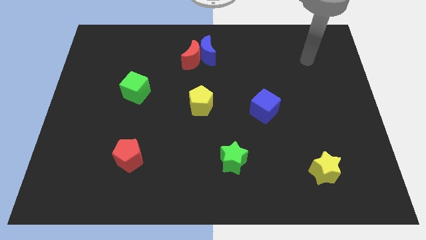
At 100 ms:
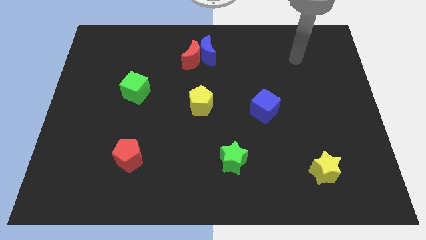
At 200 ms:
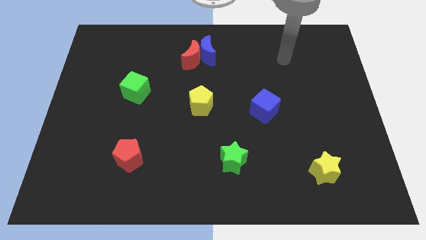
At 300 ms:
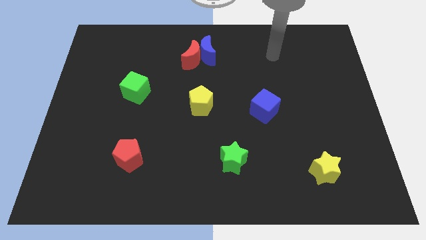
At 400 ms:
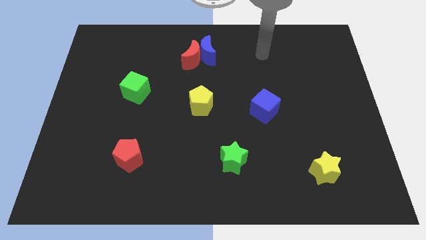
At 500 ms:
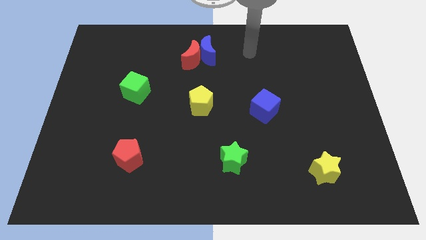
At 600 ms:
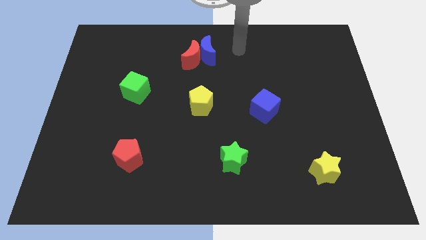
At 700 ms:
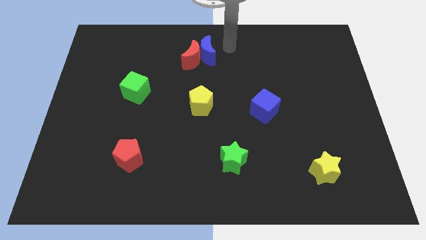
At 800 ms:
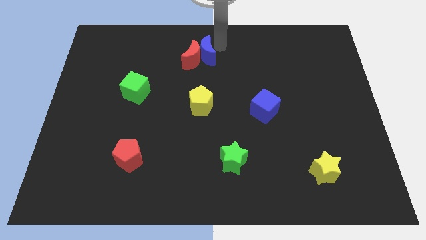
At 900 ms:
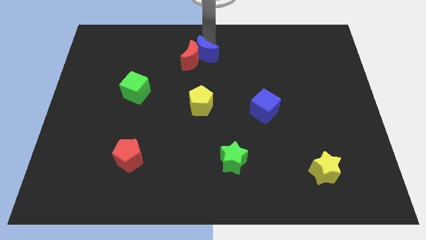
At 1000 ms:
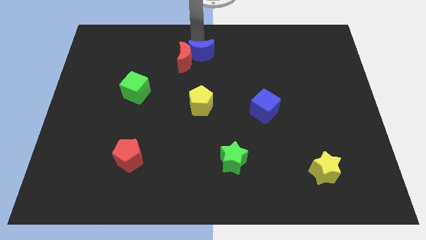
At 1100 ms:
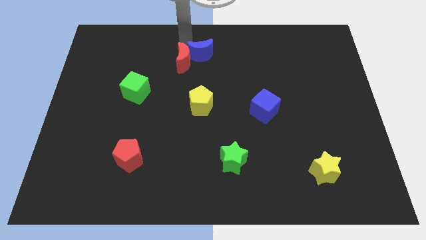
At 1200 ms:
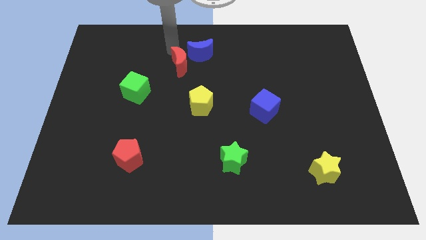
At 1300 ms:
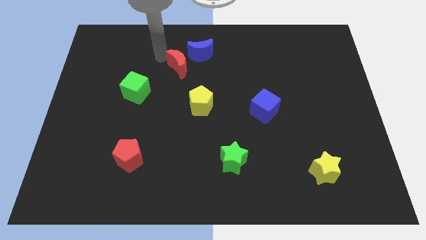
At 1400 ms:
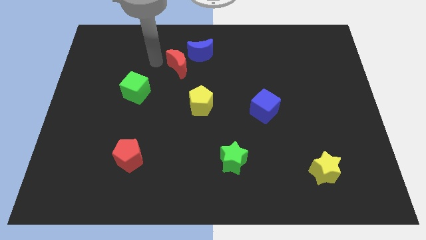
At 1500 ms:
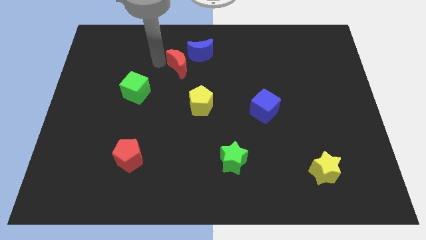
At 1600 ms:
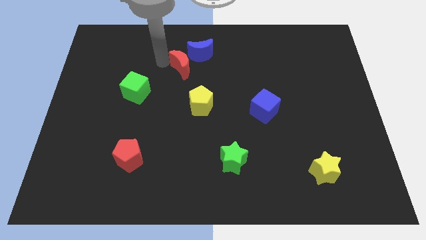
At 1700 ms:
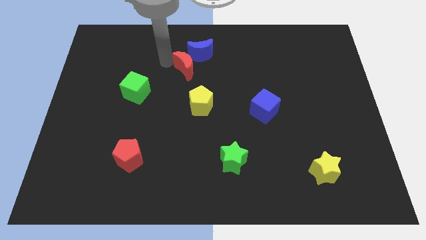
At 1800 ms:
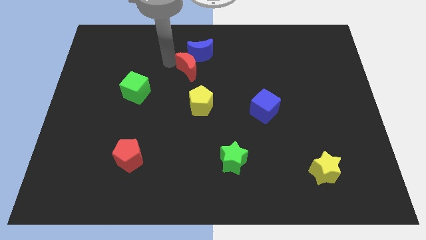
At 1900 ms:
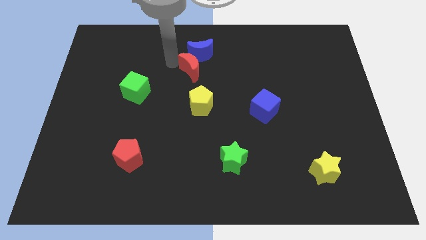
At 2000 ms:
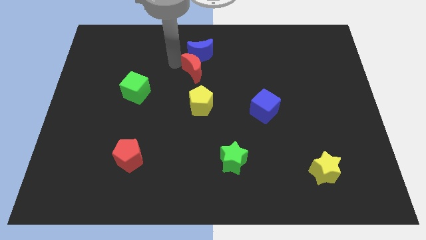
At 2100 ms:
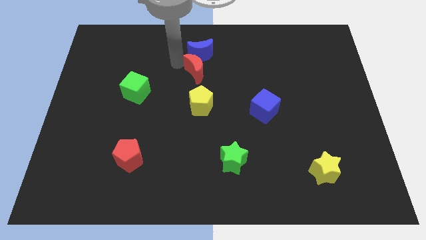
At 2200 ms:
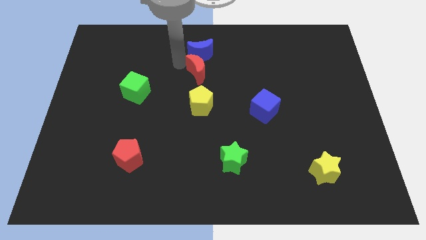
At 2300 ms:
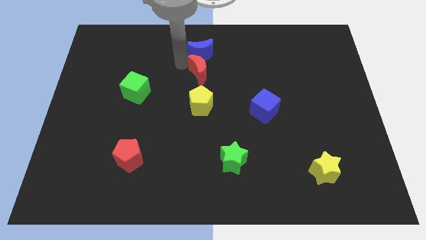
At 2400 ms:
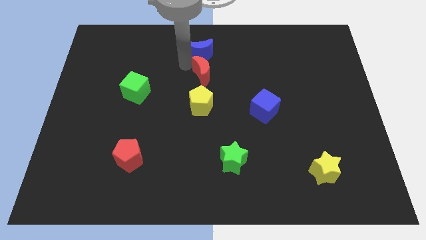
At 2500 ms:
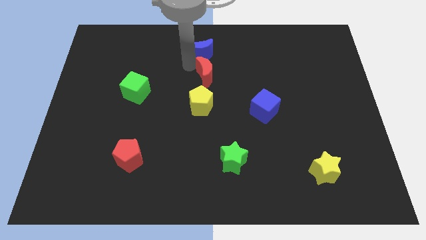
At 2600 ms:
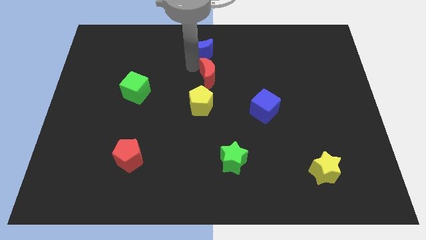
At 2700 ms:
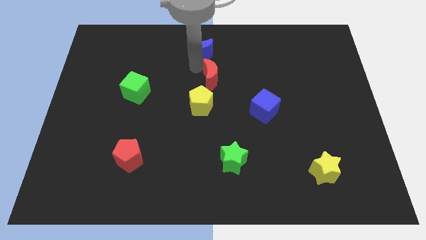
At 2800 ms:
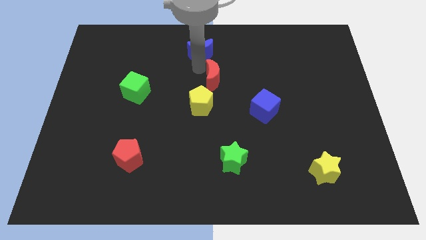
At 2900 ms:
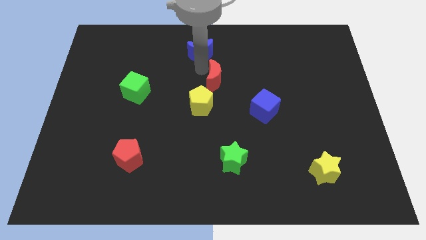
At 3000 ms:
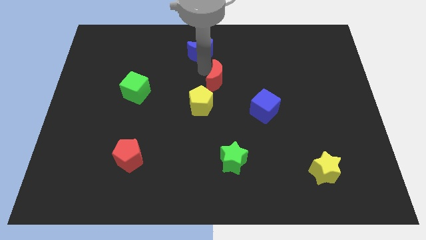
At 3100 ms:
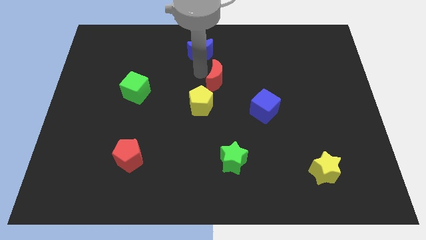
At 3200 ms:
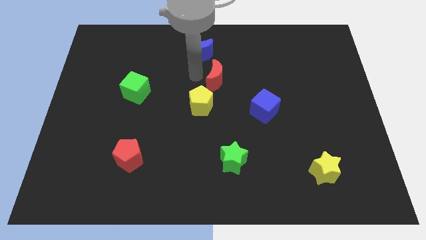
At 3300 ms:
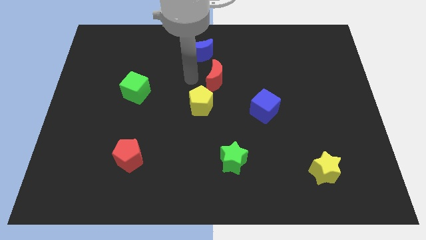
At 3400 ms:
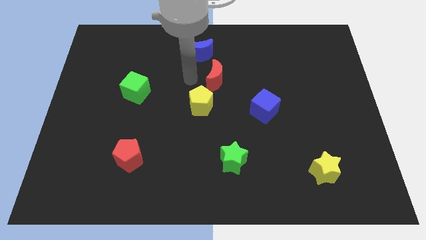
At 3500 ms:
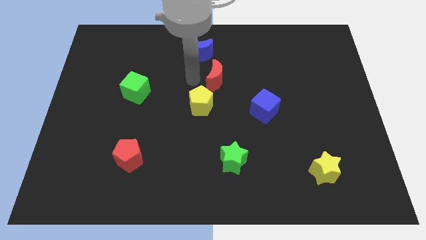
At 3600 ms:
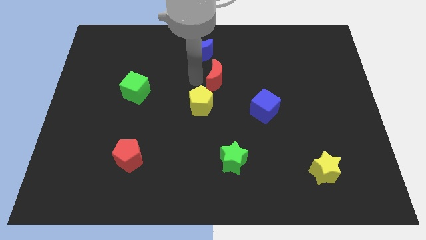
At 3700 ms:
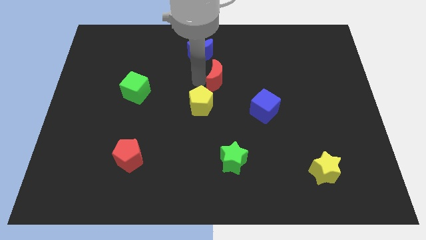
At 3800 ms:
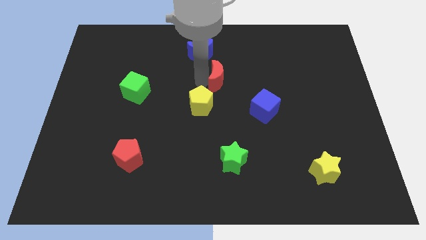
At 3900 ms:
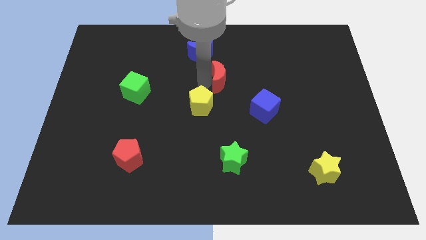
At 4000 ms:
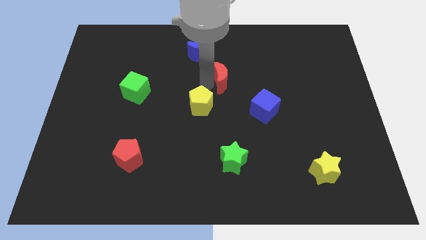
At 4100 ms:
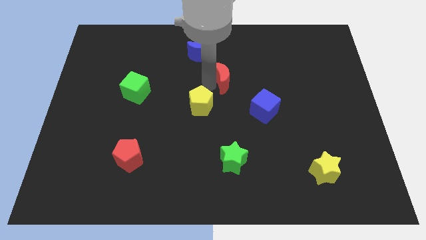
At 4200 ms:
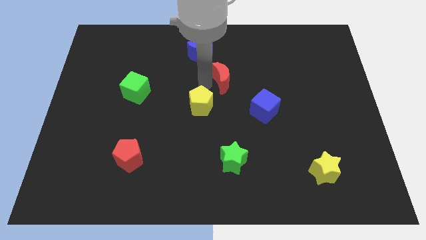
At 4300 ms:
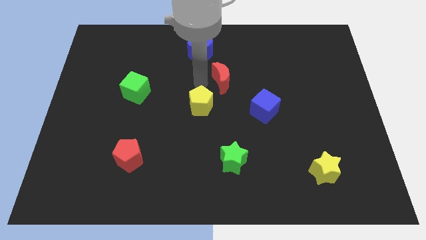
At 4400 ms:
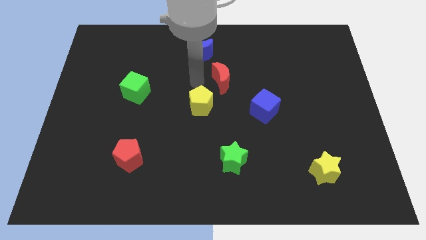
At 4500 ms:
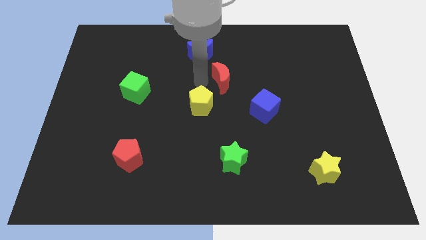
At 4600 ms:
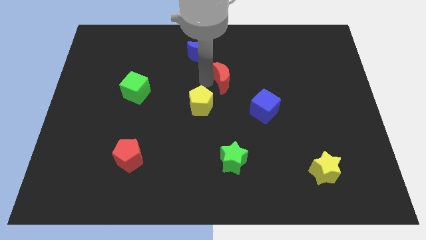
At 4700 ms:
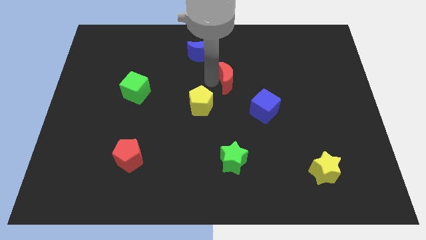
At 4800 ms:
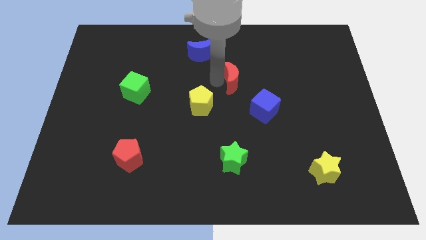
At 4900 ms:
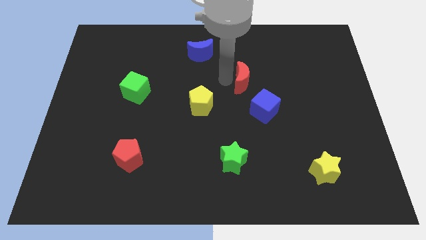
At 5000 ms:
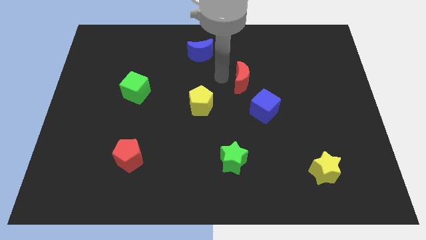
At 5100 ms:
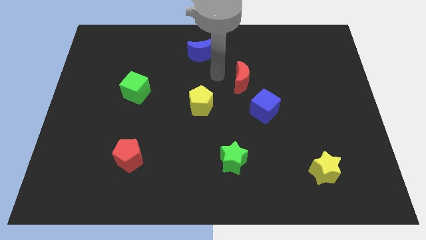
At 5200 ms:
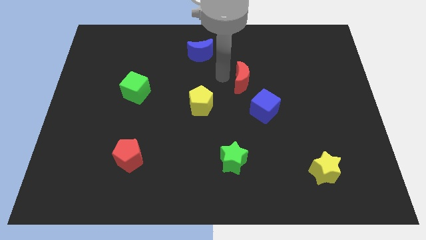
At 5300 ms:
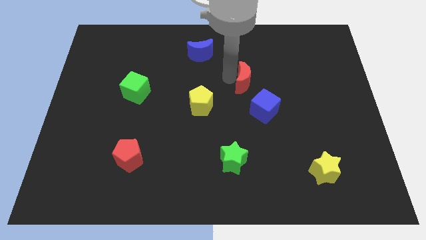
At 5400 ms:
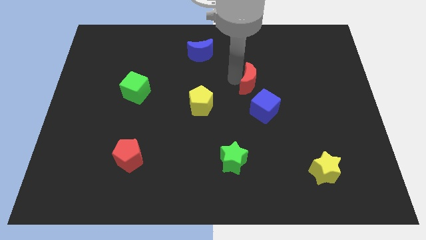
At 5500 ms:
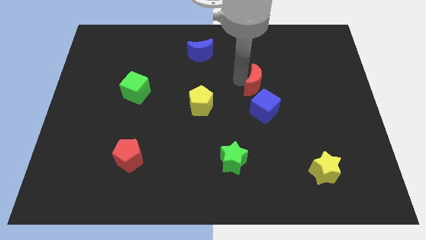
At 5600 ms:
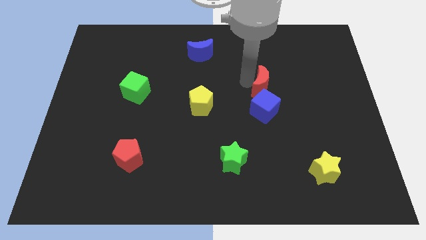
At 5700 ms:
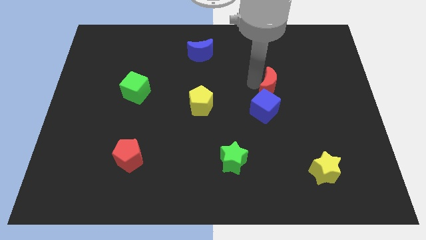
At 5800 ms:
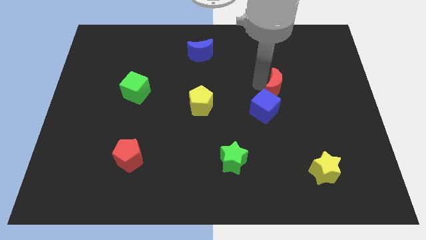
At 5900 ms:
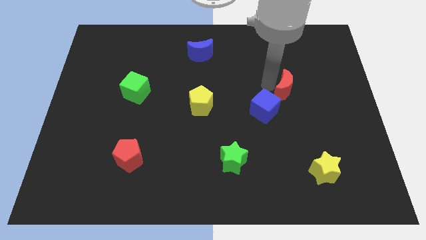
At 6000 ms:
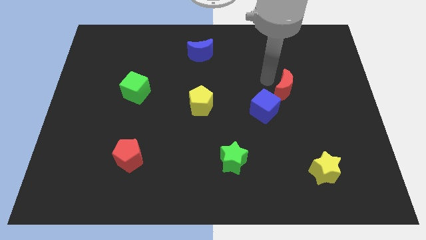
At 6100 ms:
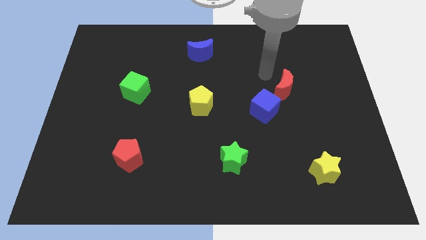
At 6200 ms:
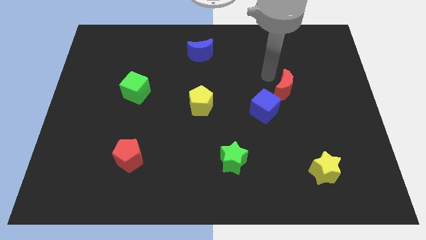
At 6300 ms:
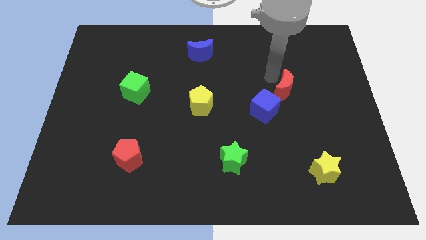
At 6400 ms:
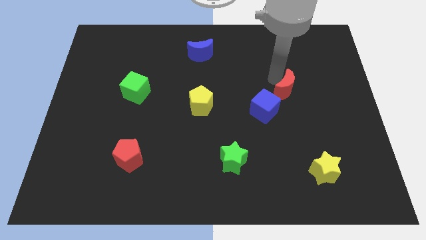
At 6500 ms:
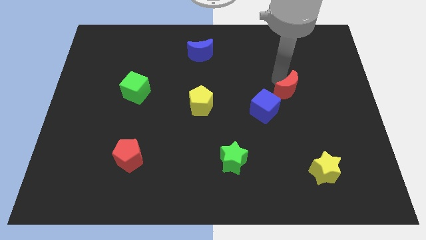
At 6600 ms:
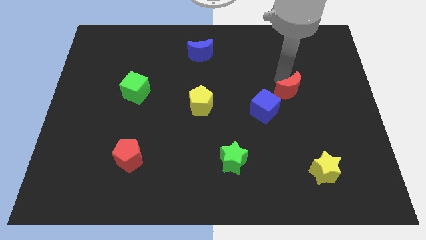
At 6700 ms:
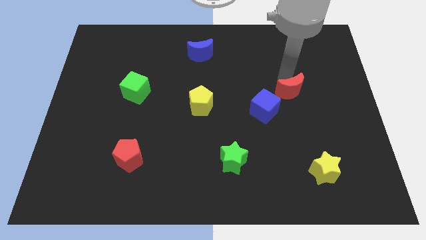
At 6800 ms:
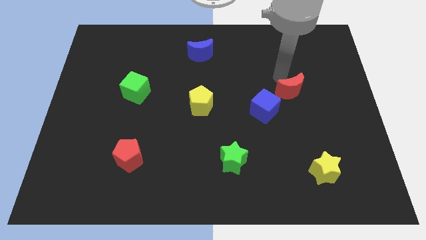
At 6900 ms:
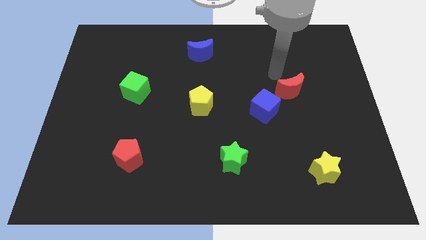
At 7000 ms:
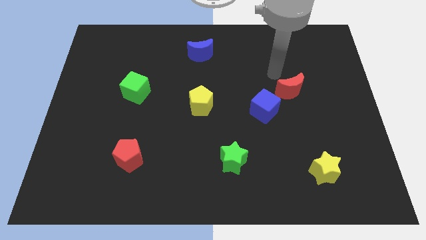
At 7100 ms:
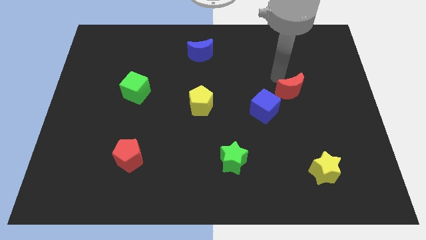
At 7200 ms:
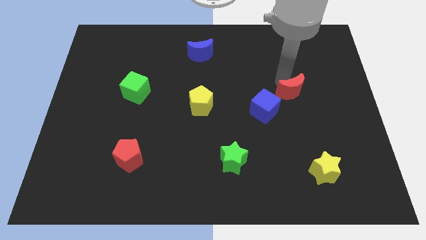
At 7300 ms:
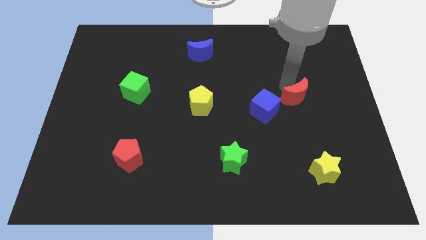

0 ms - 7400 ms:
put the red moon to the right of the blue cube
